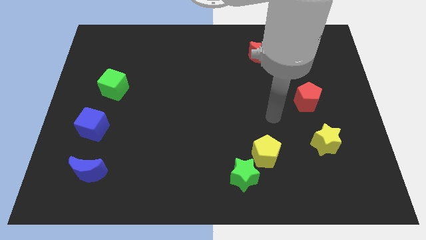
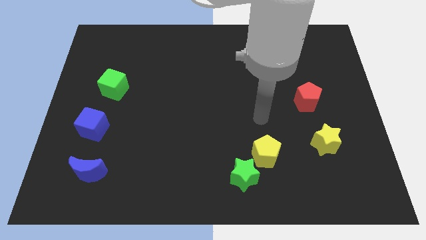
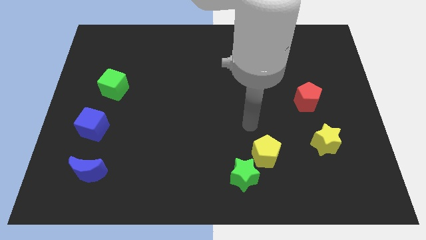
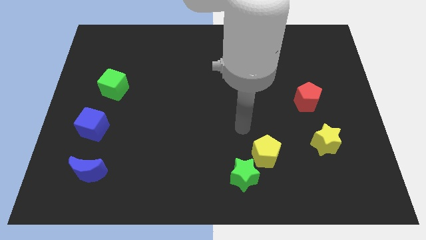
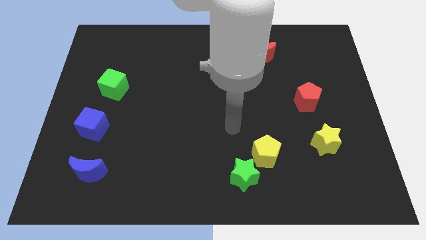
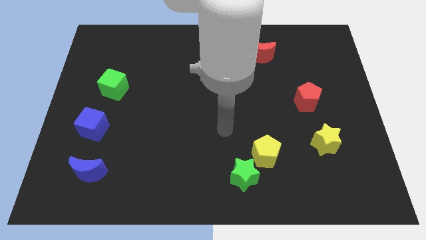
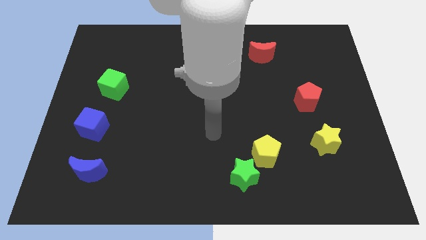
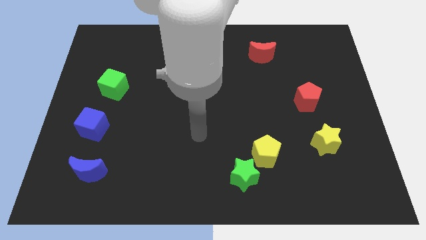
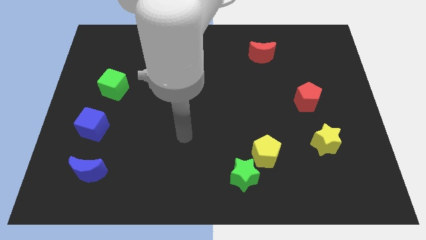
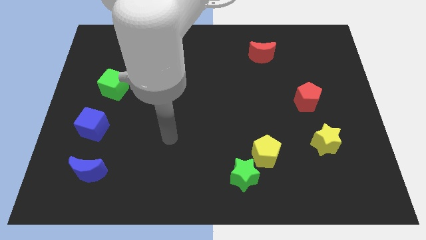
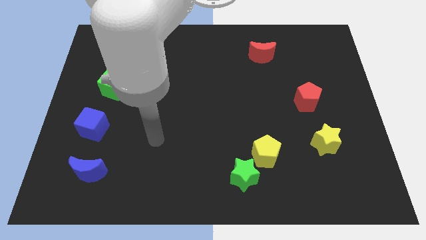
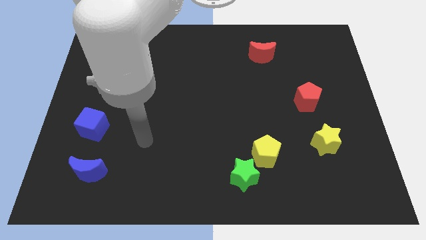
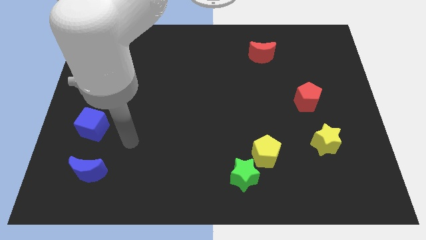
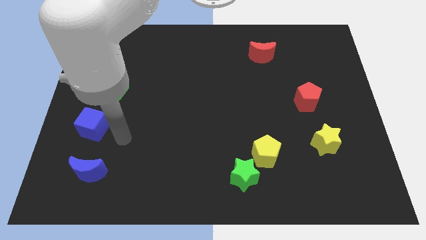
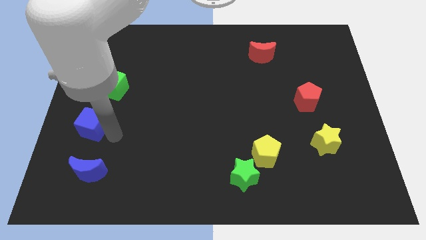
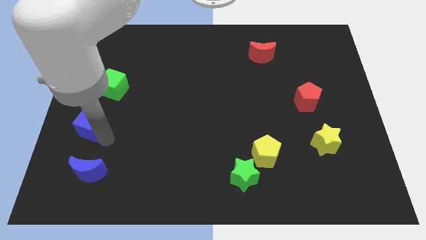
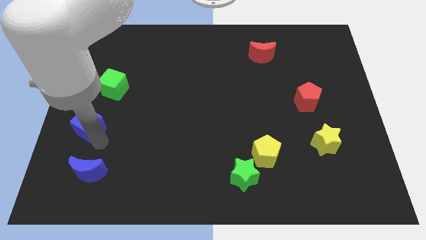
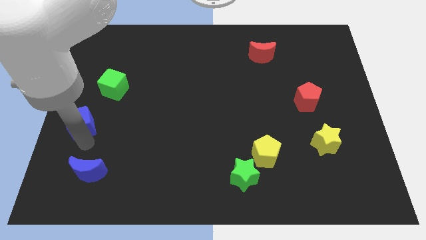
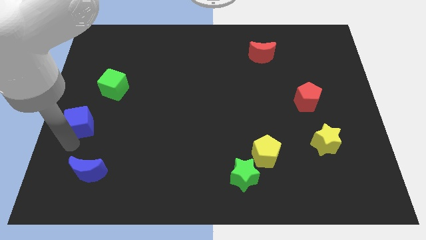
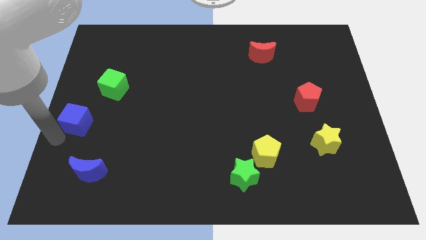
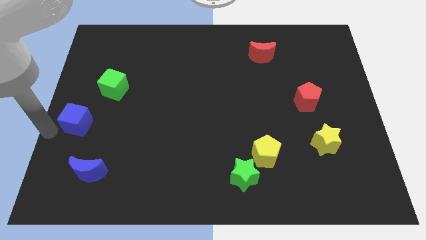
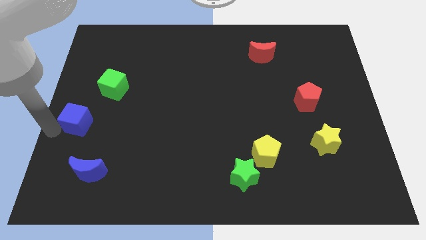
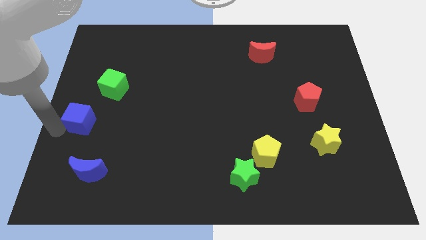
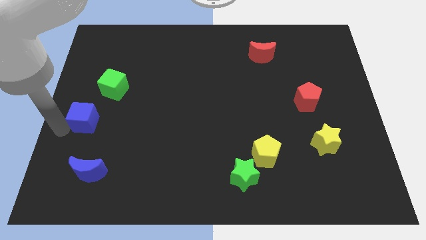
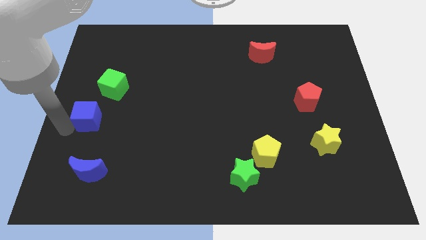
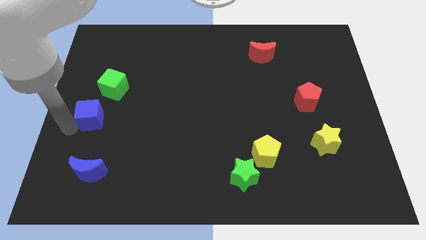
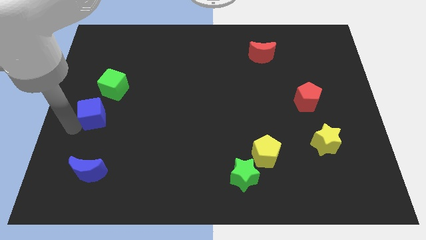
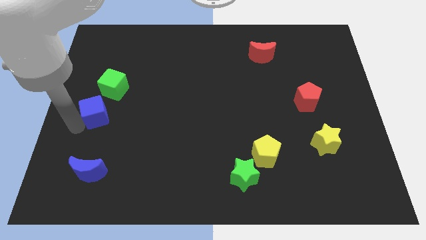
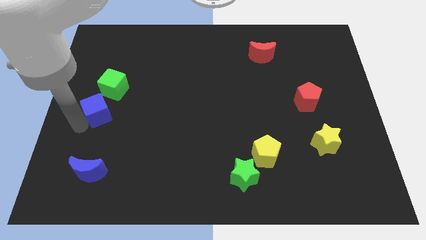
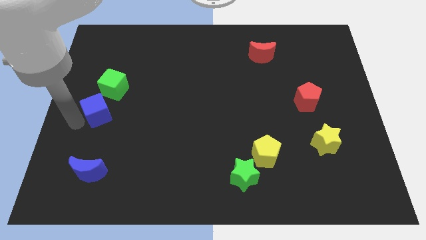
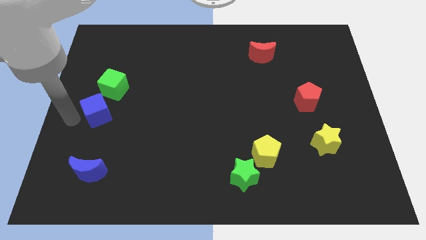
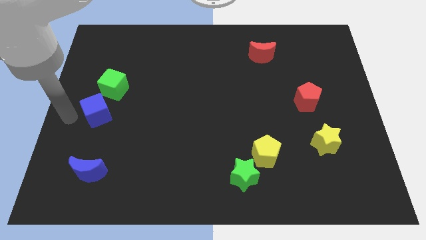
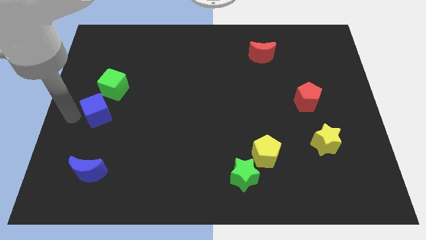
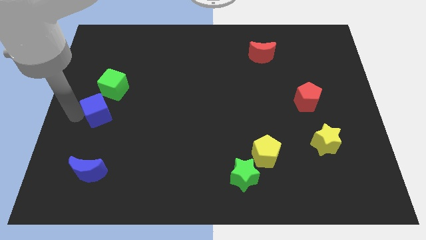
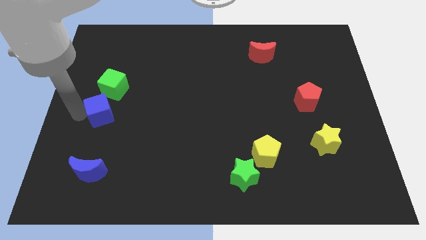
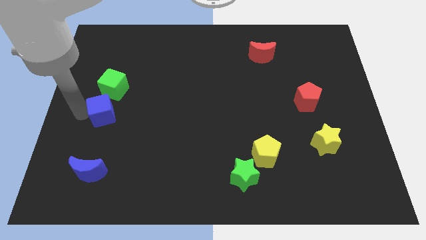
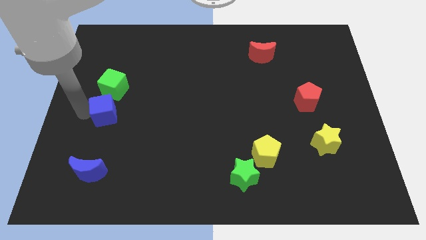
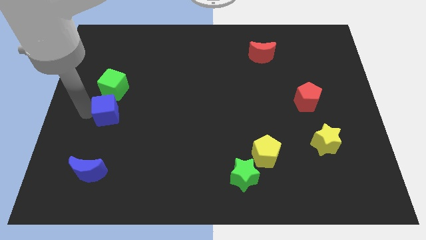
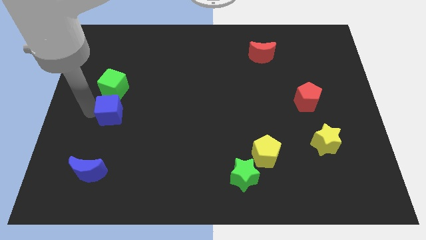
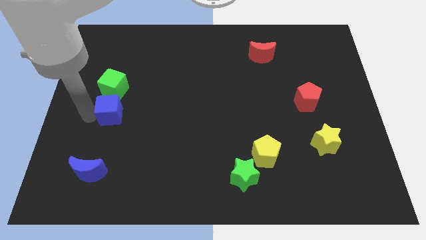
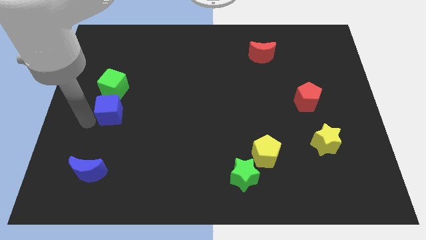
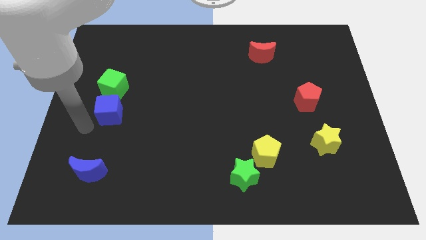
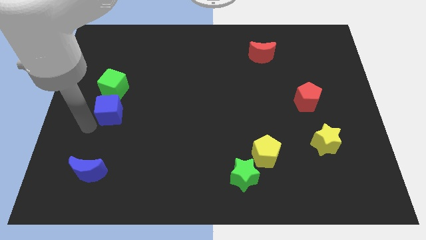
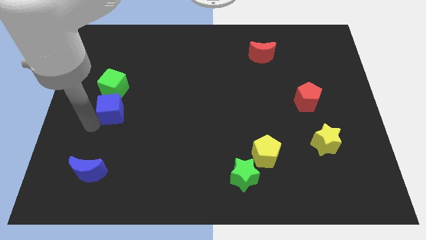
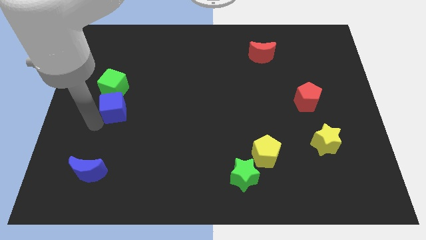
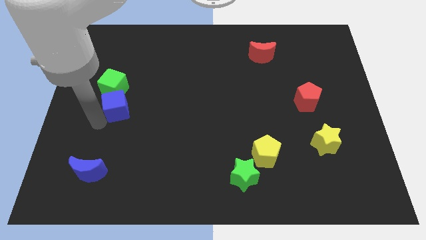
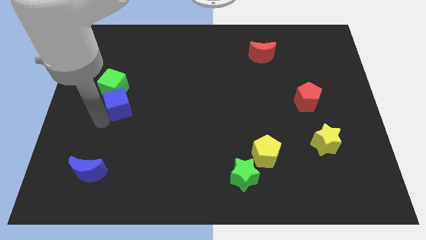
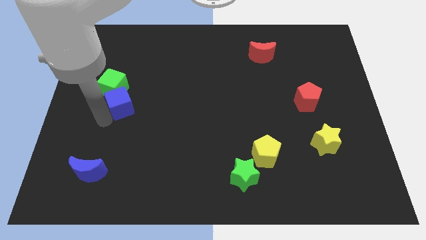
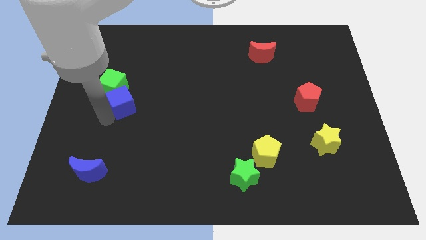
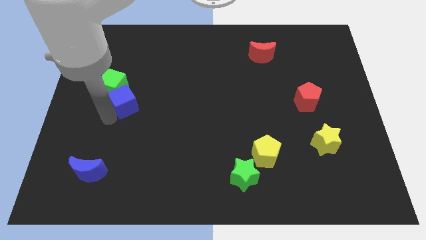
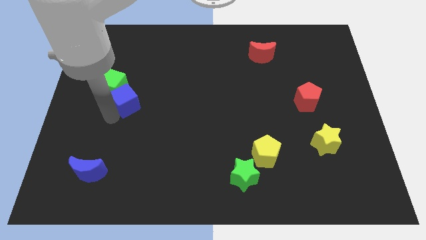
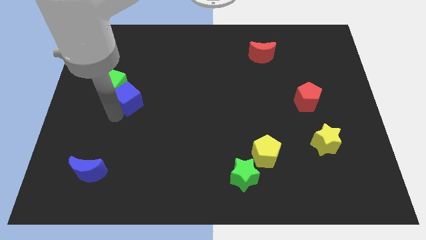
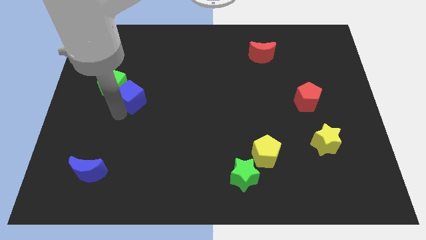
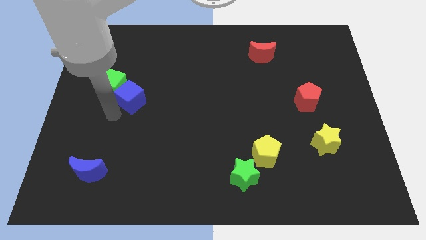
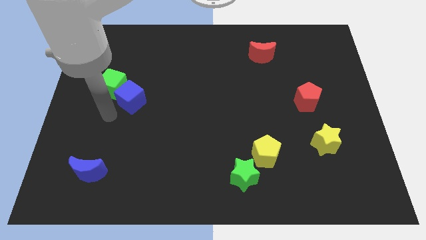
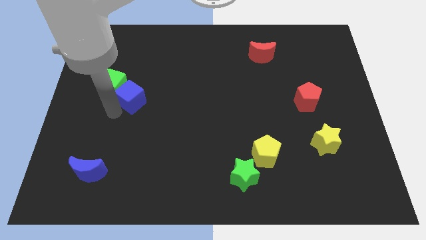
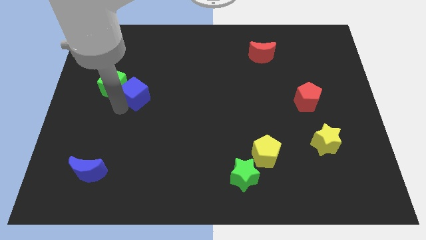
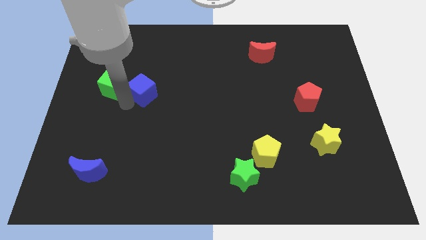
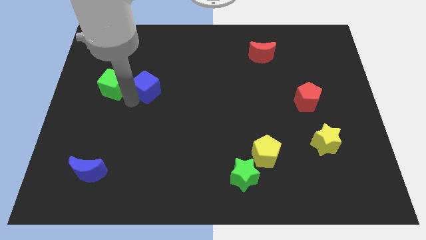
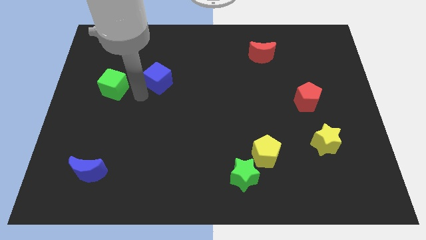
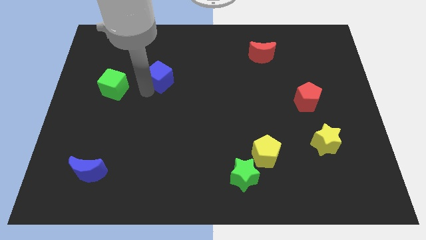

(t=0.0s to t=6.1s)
push the blue cube up and to the right

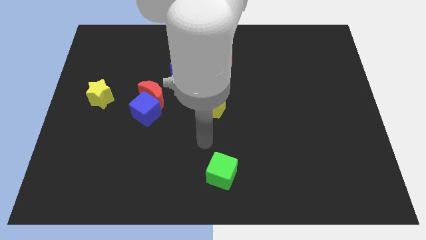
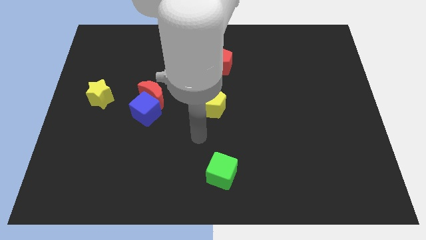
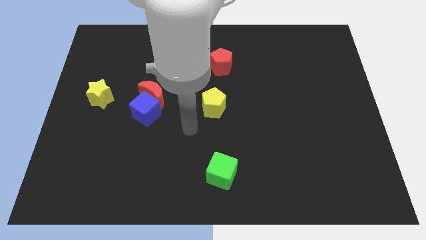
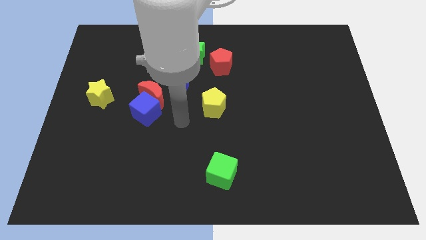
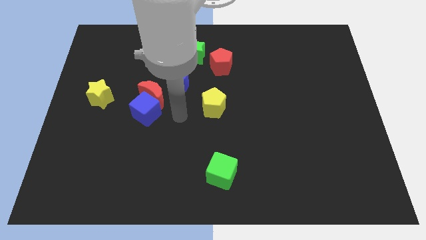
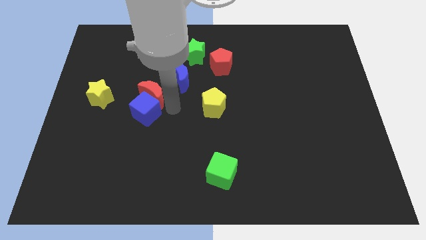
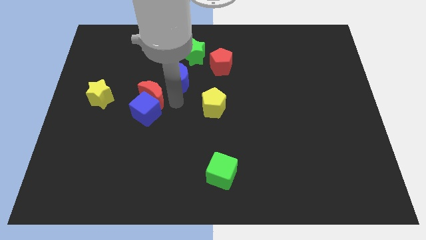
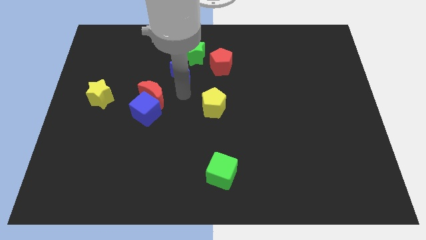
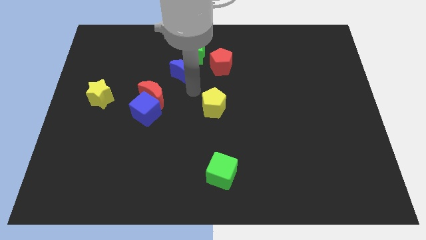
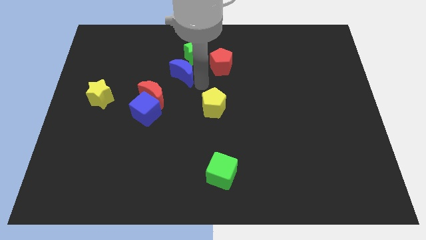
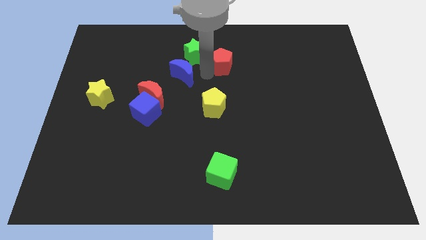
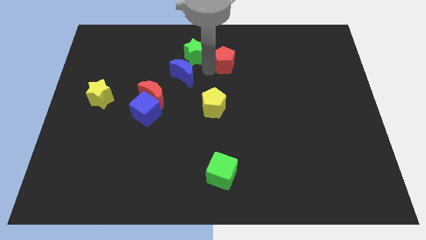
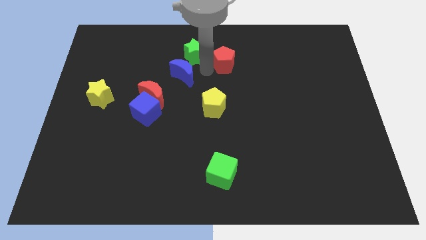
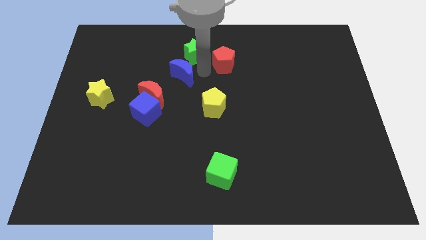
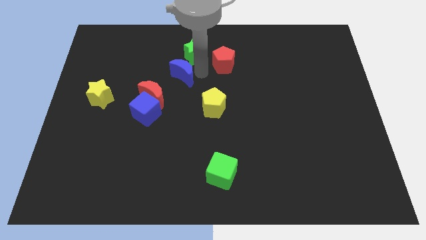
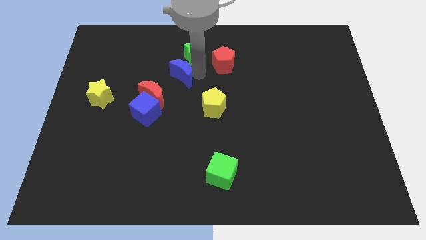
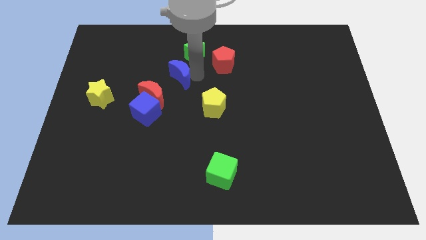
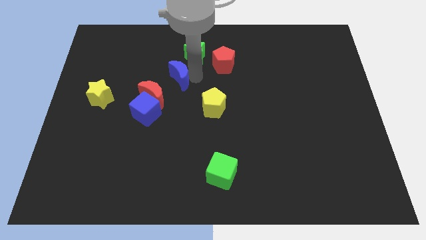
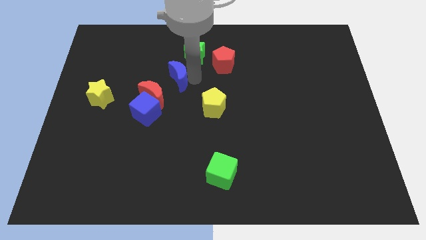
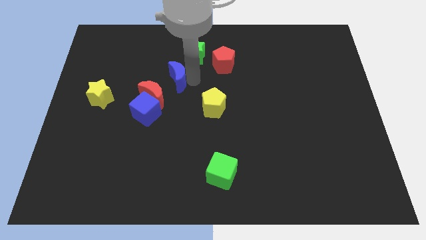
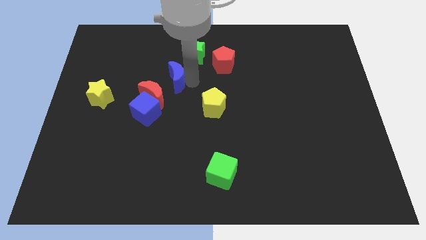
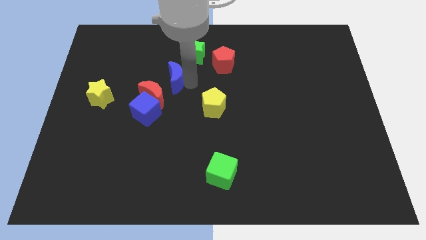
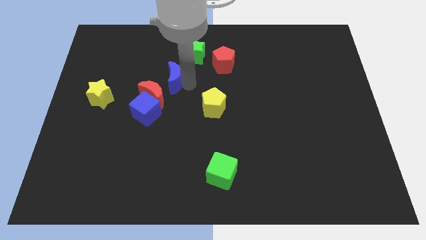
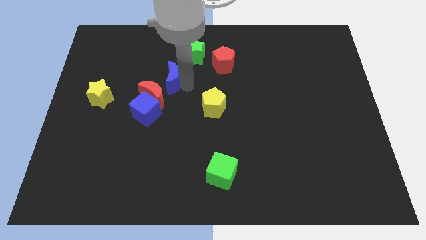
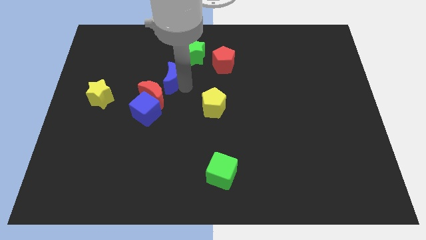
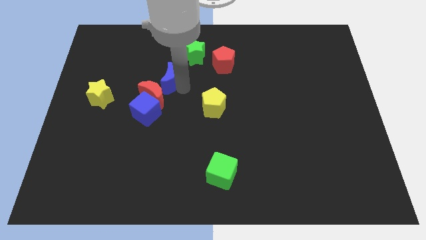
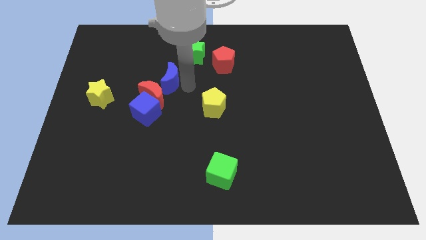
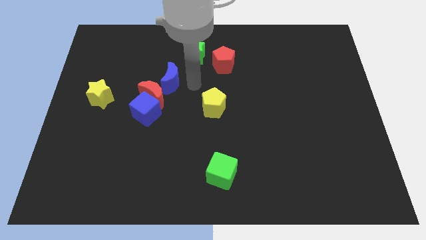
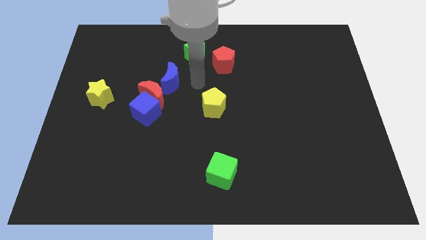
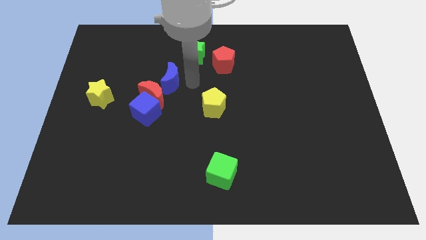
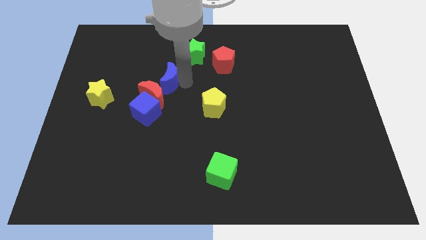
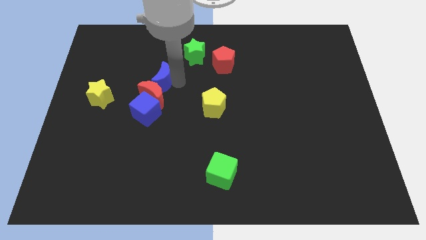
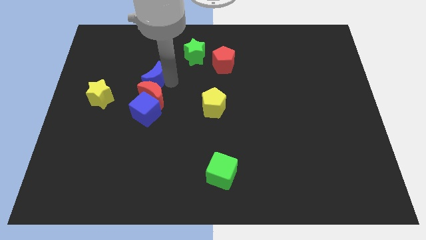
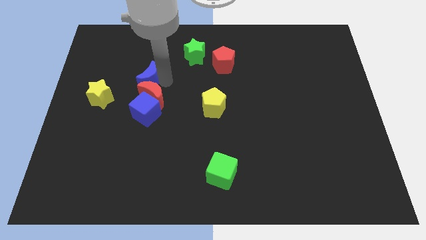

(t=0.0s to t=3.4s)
slightly push the blue moon left
